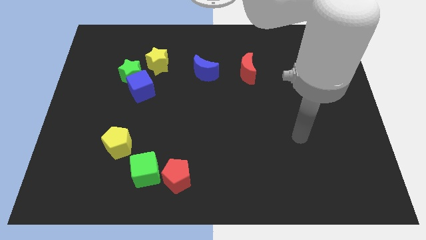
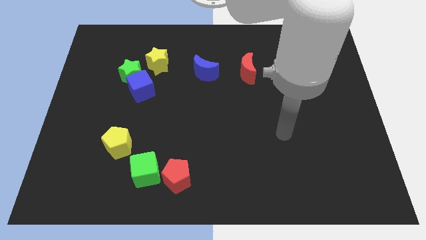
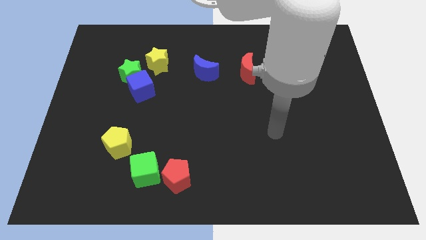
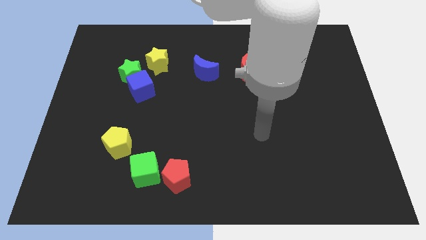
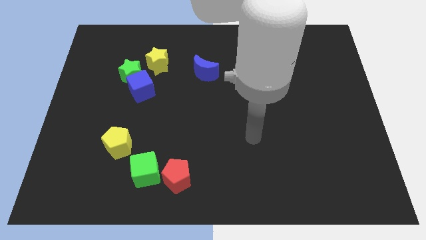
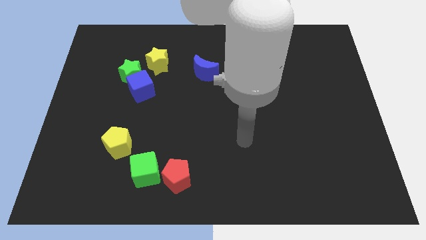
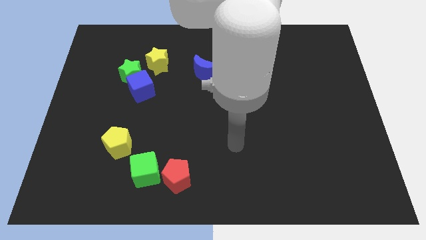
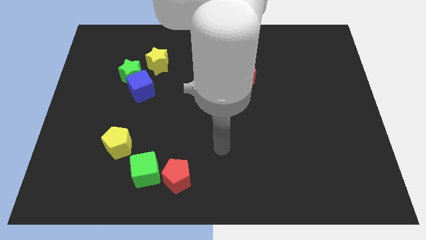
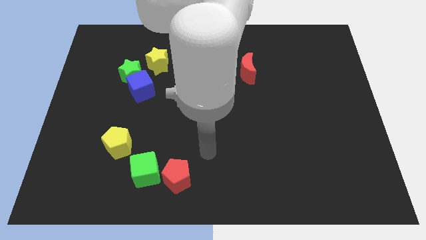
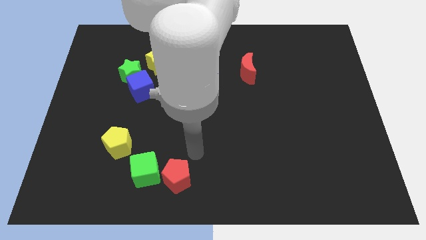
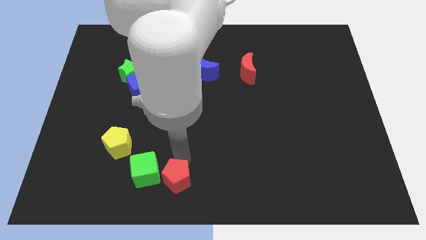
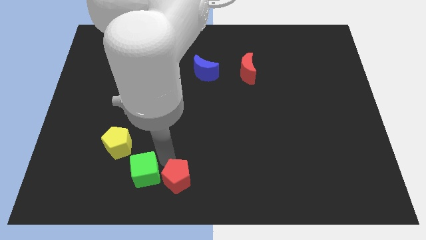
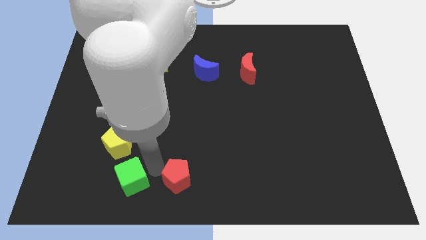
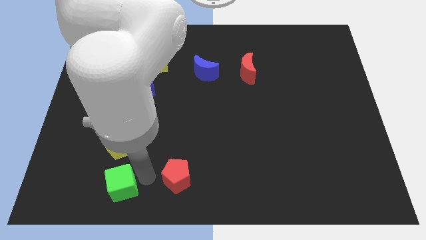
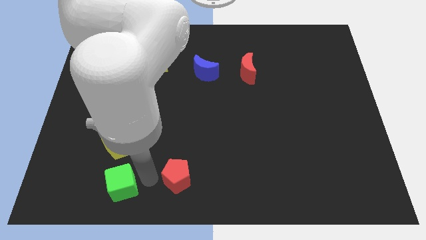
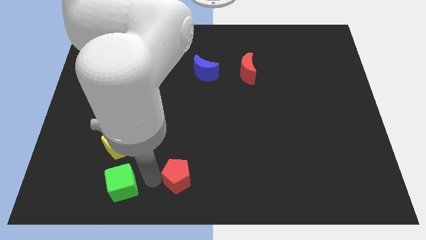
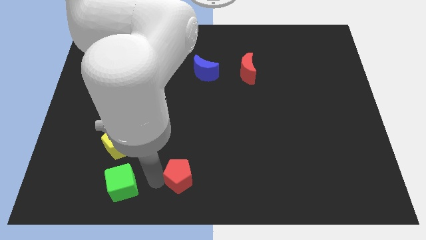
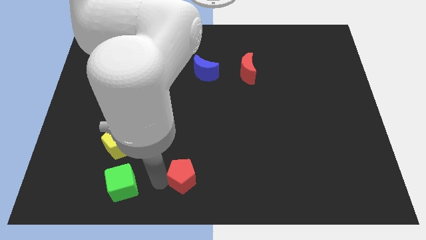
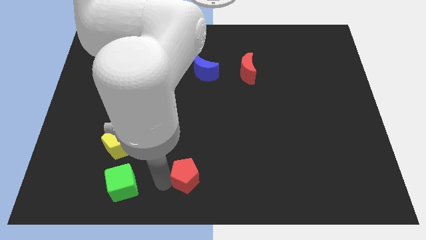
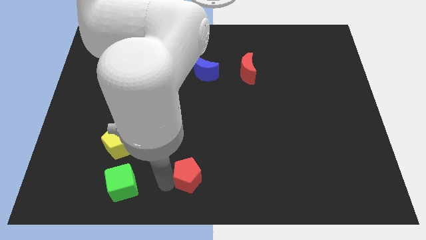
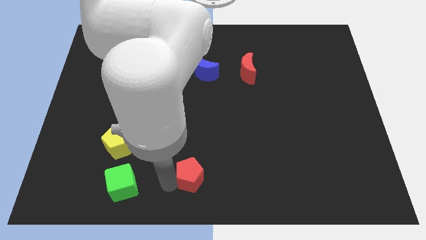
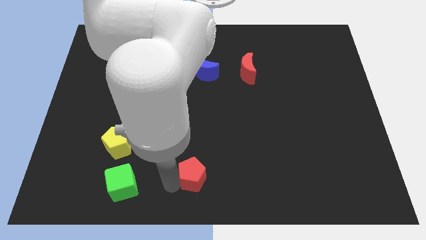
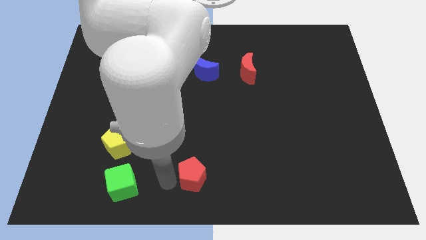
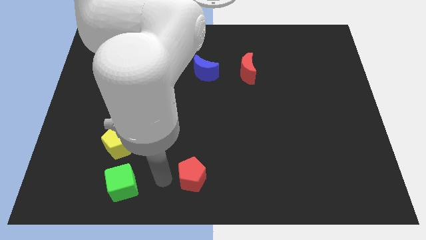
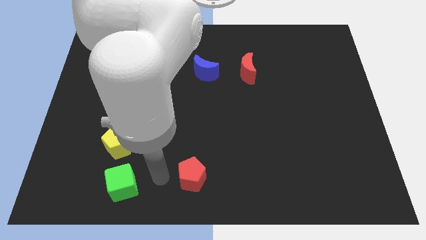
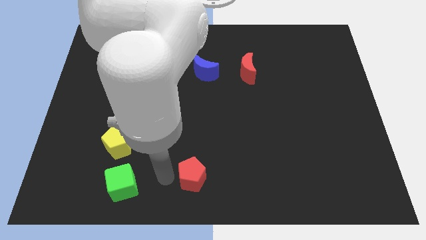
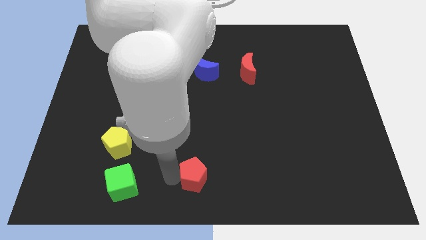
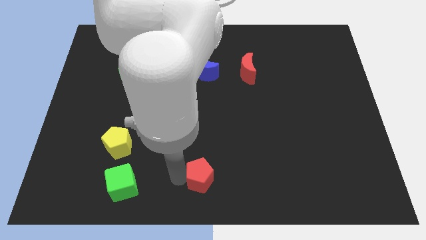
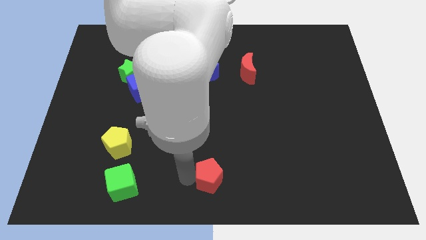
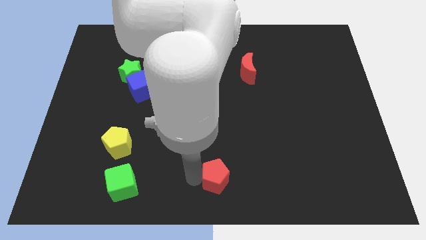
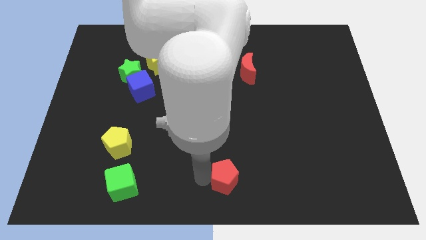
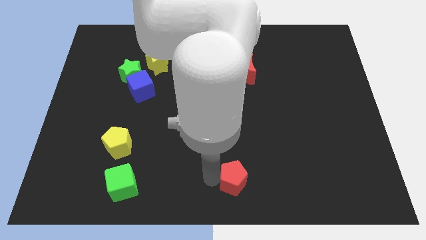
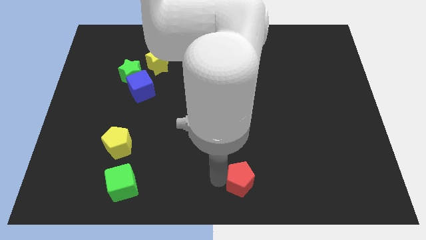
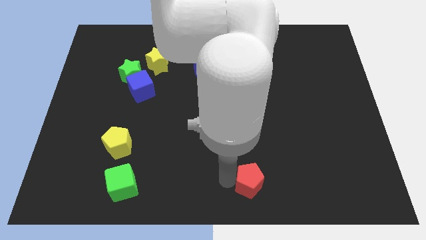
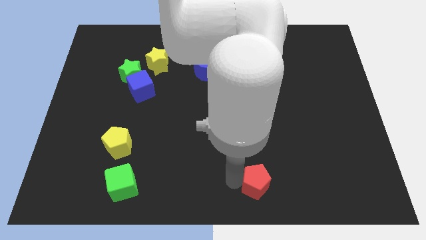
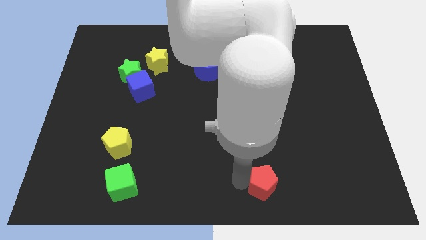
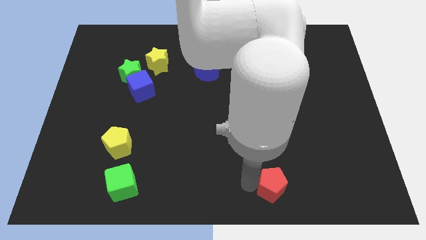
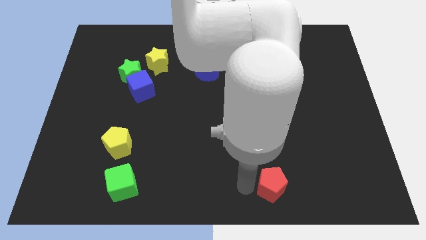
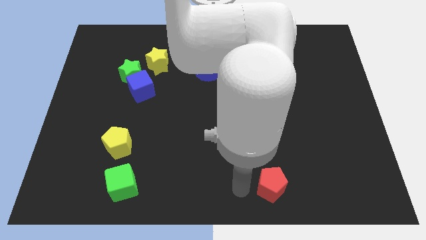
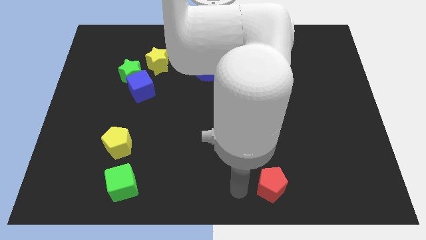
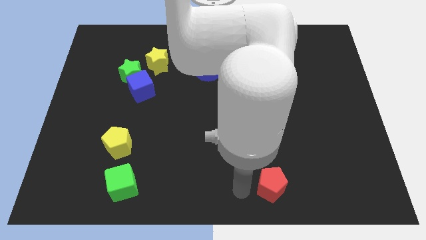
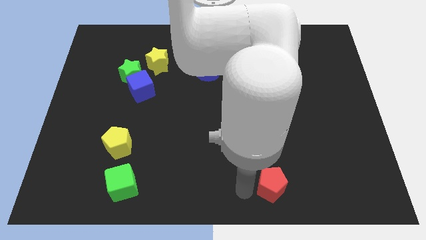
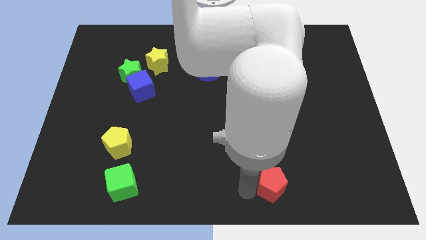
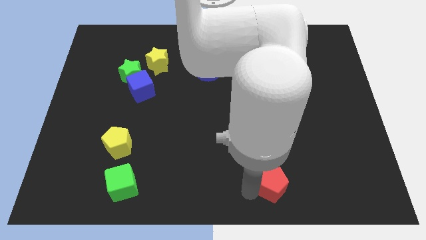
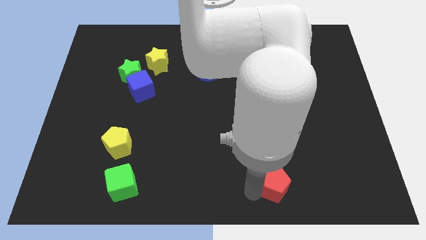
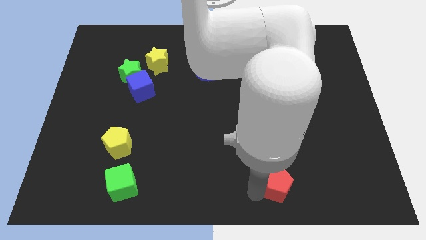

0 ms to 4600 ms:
push the red pentagon right

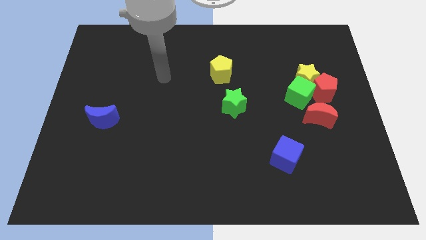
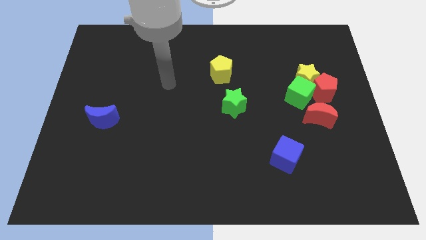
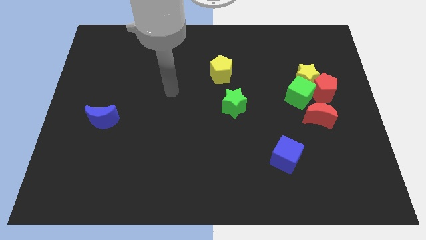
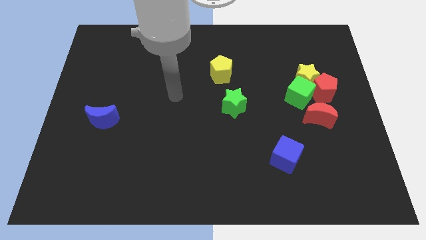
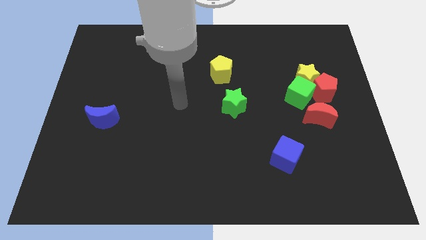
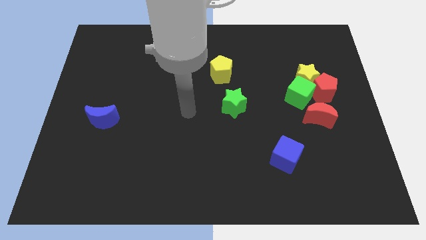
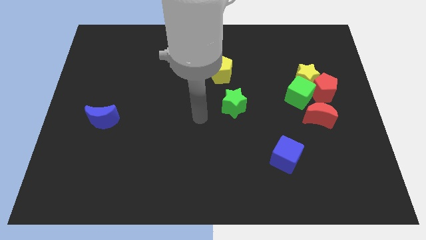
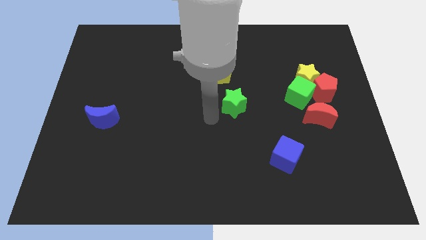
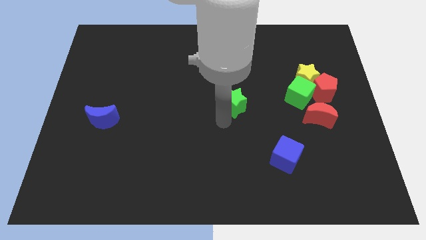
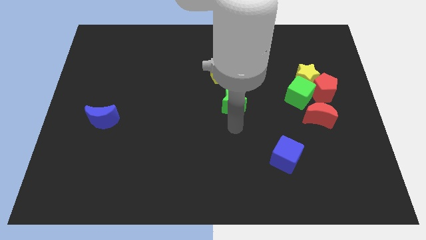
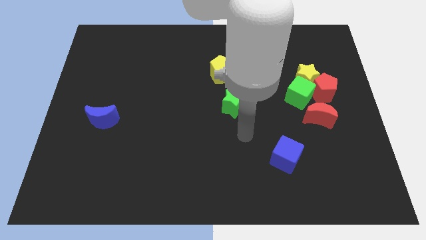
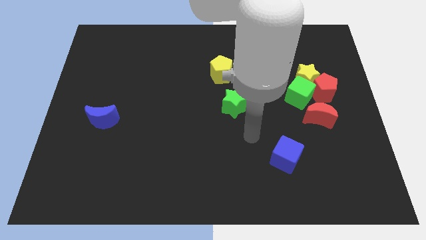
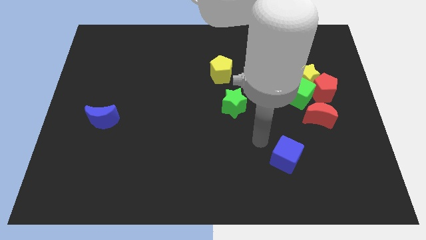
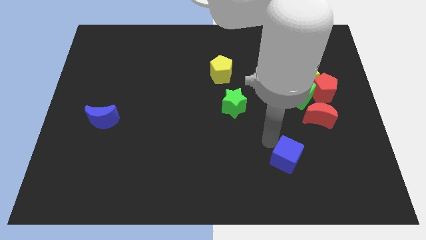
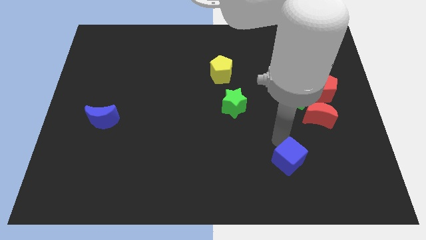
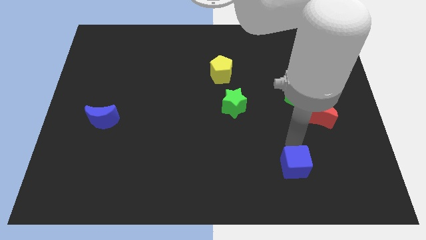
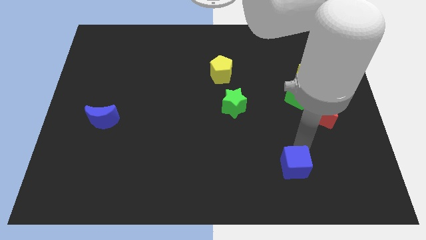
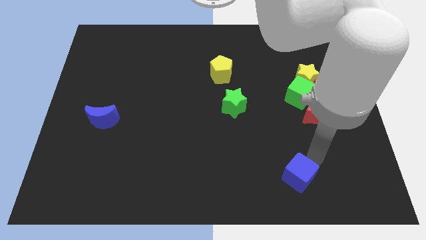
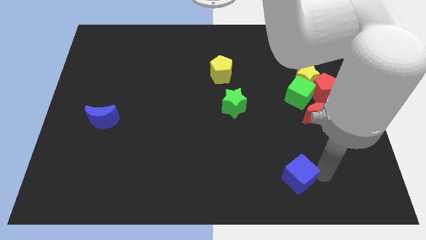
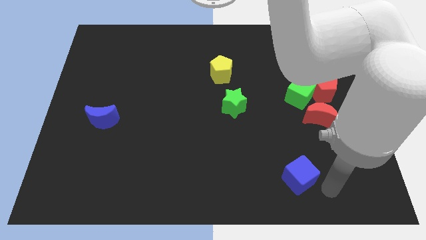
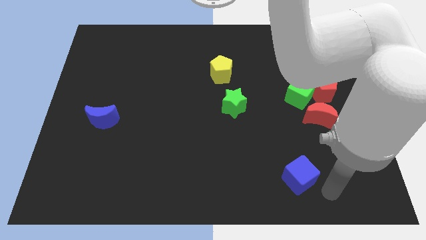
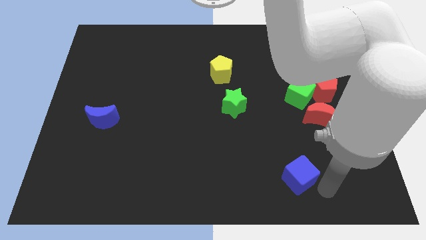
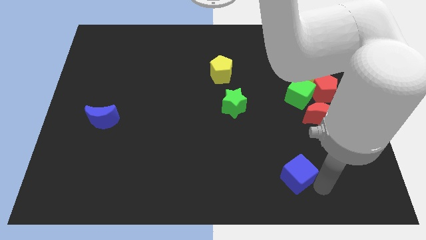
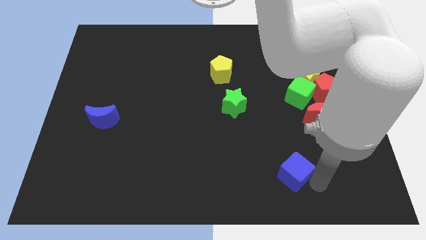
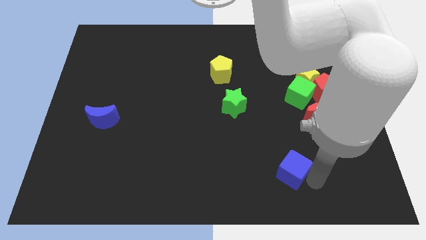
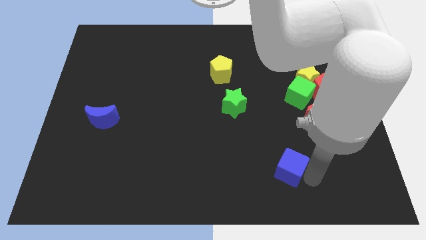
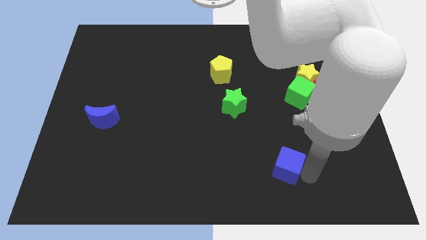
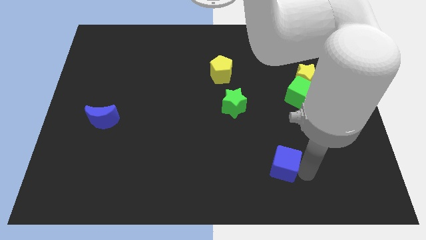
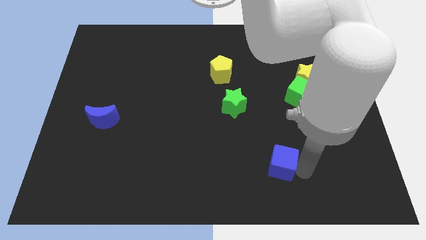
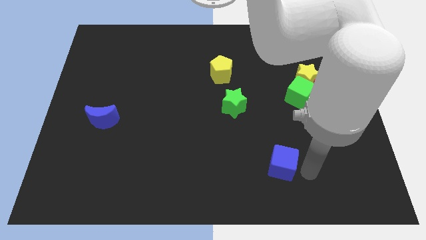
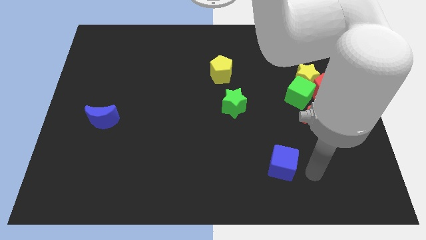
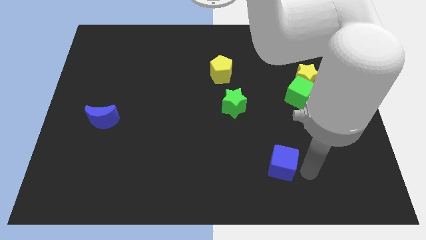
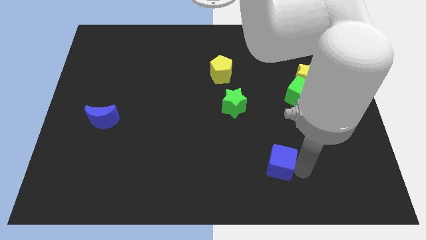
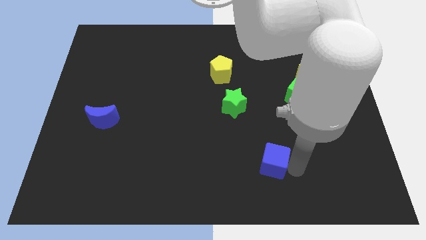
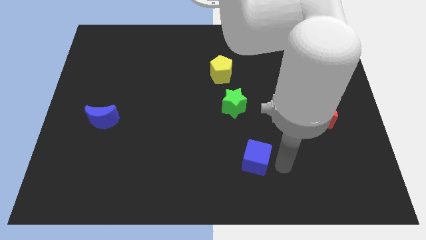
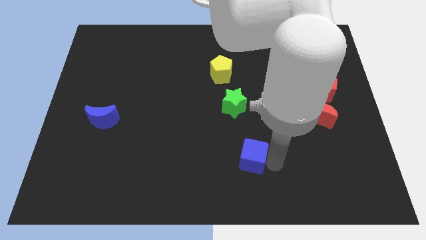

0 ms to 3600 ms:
slightly move the blue cube to the left
